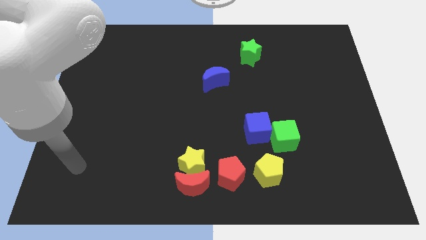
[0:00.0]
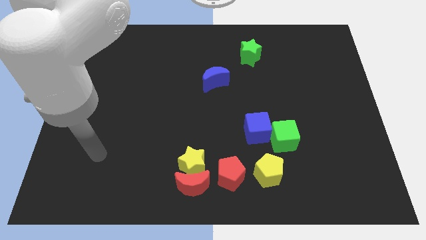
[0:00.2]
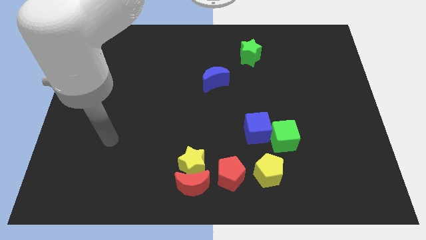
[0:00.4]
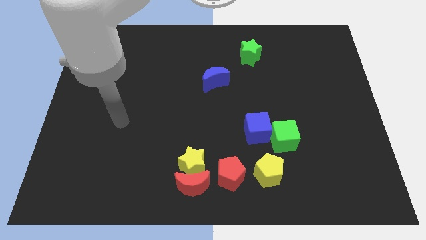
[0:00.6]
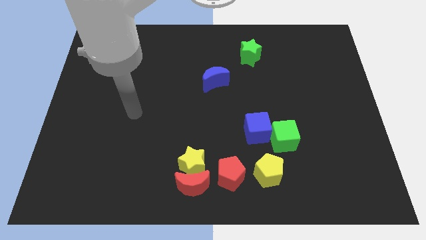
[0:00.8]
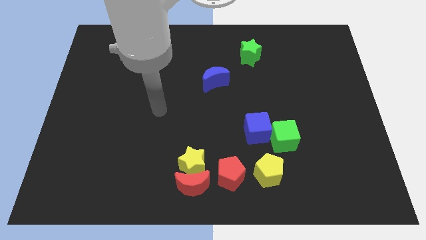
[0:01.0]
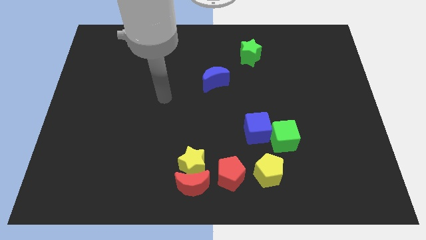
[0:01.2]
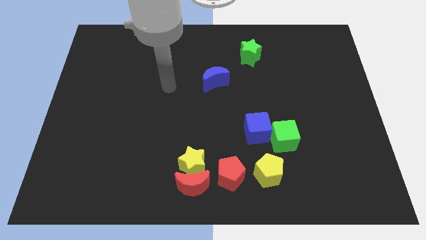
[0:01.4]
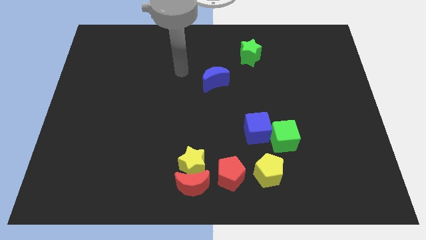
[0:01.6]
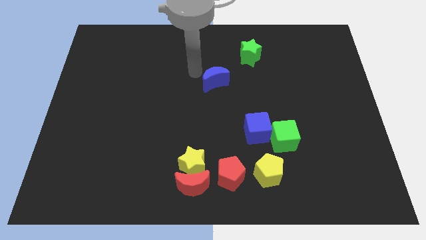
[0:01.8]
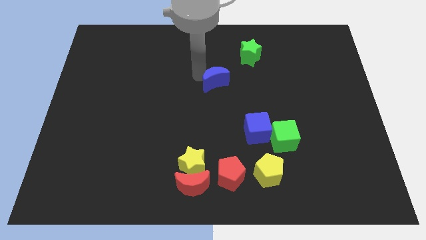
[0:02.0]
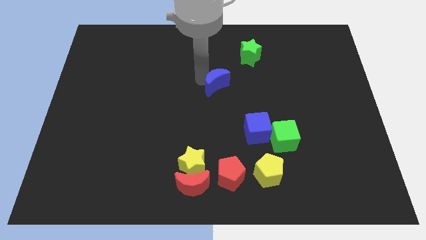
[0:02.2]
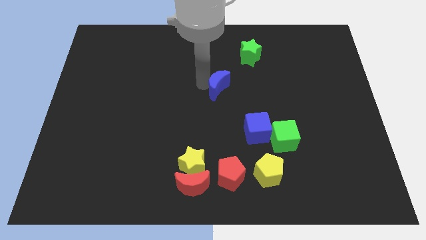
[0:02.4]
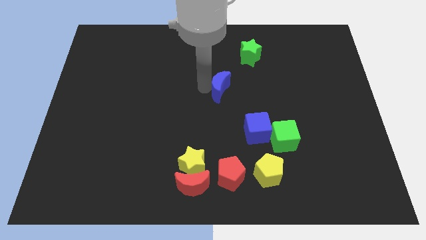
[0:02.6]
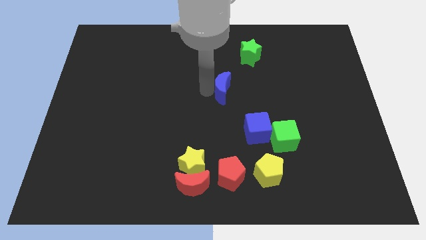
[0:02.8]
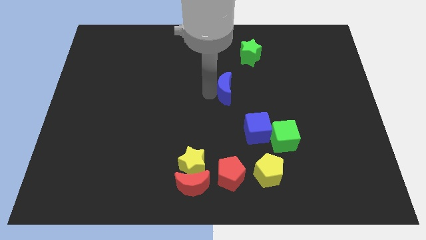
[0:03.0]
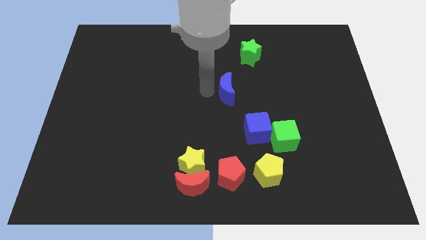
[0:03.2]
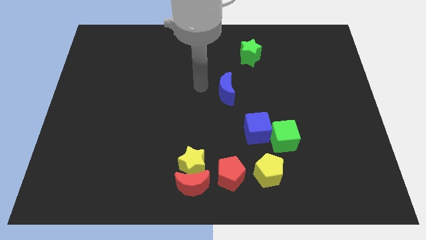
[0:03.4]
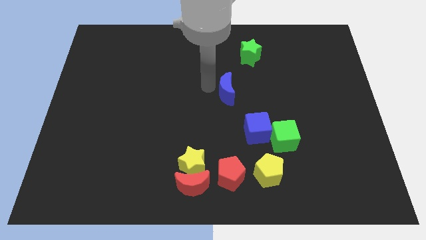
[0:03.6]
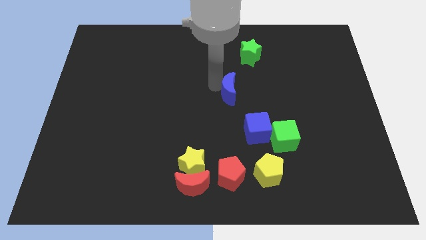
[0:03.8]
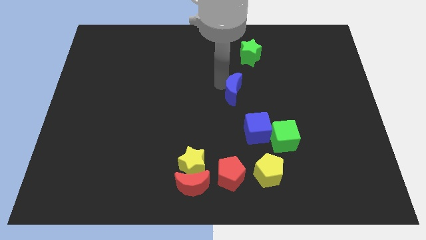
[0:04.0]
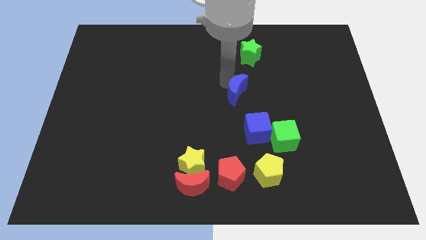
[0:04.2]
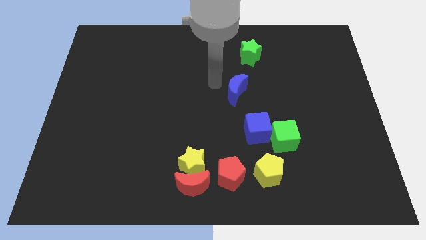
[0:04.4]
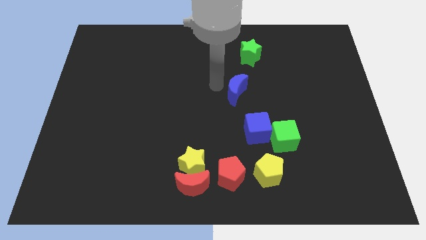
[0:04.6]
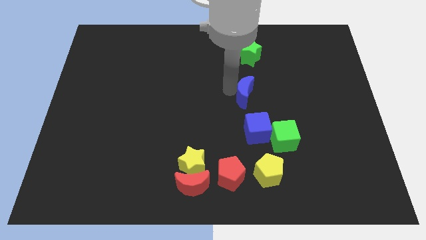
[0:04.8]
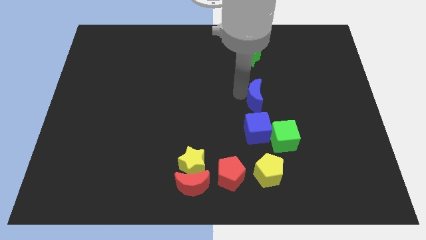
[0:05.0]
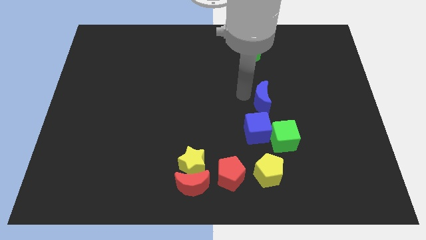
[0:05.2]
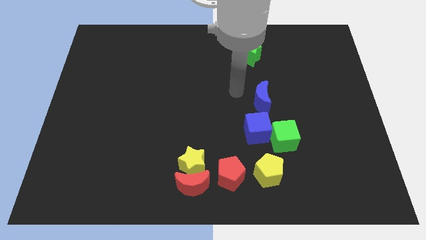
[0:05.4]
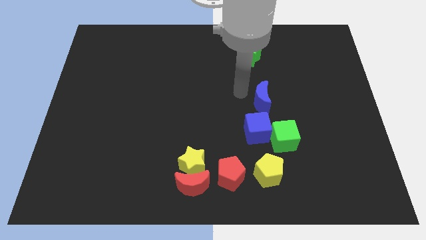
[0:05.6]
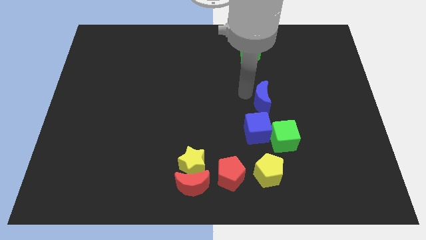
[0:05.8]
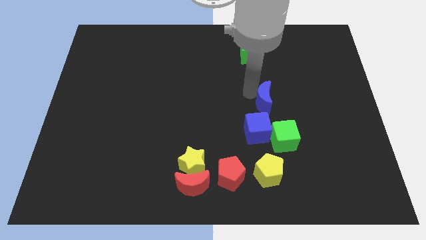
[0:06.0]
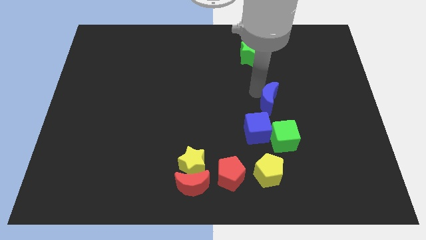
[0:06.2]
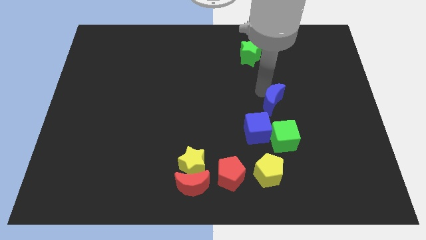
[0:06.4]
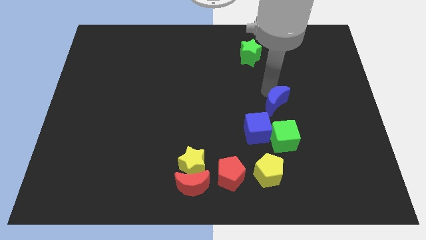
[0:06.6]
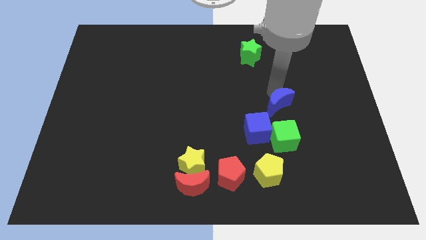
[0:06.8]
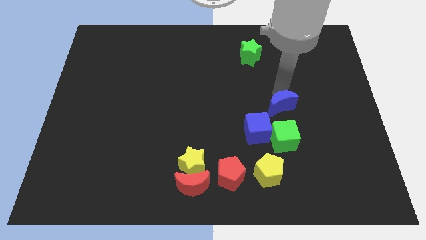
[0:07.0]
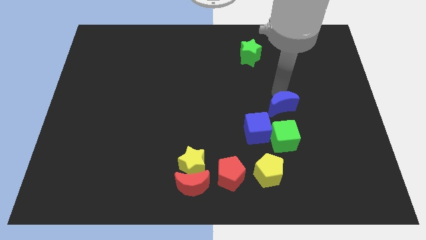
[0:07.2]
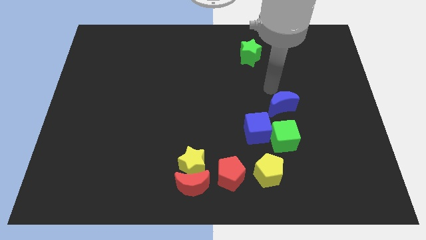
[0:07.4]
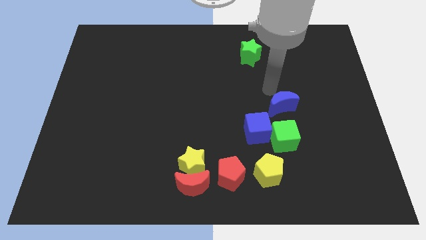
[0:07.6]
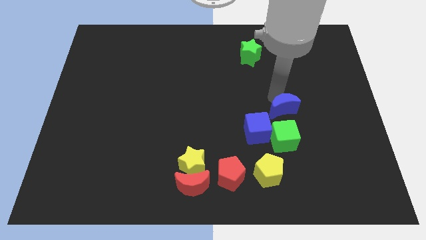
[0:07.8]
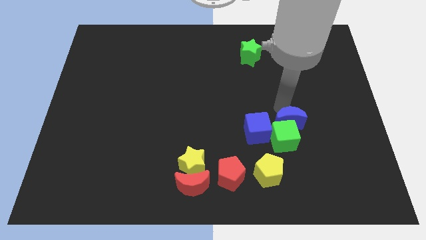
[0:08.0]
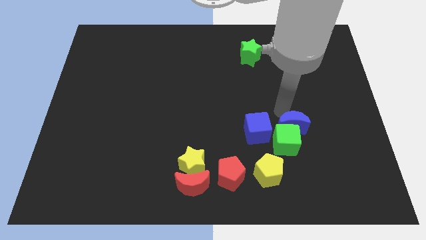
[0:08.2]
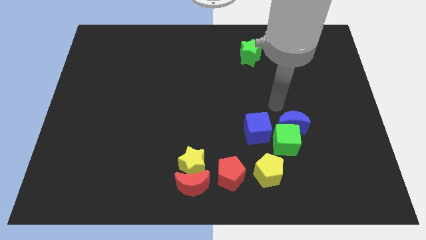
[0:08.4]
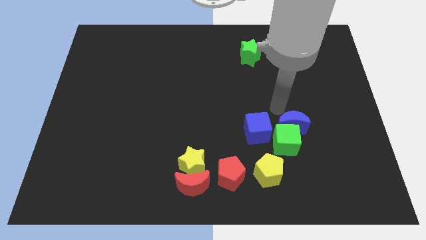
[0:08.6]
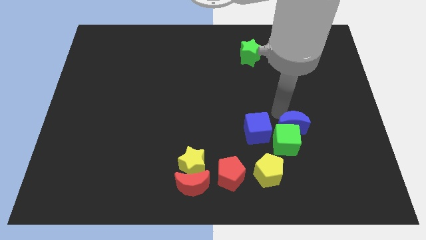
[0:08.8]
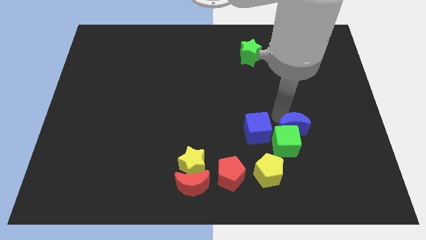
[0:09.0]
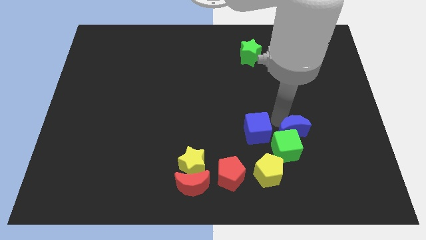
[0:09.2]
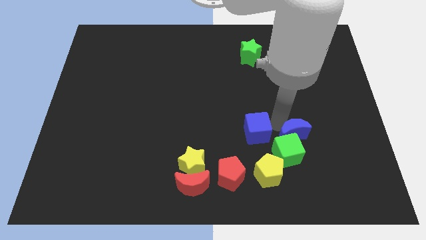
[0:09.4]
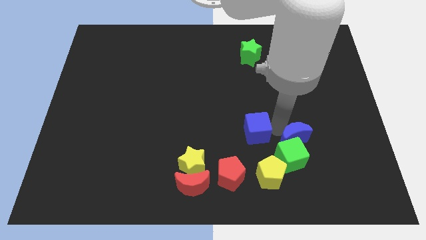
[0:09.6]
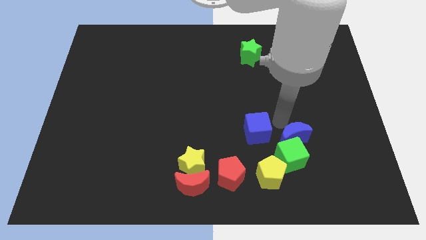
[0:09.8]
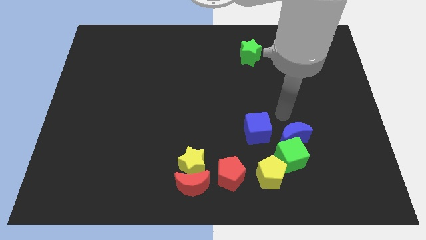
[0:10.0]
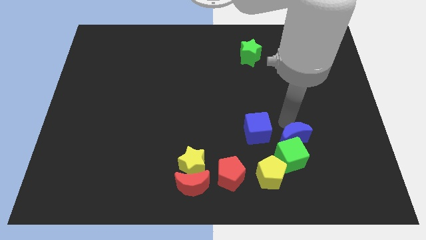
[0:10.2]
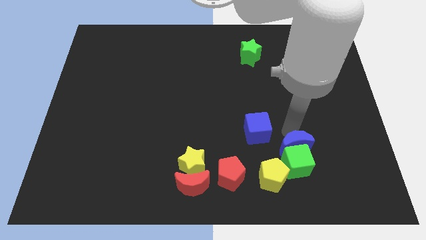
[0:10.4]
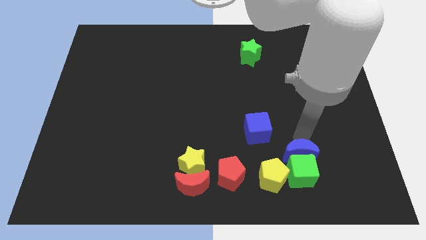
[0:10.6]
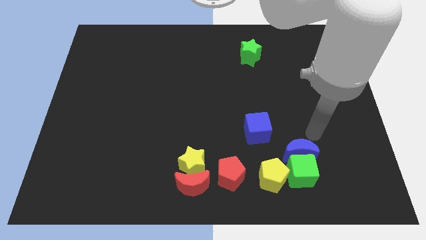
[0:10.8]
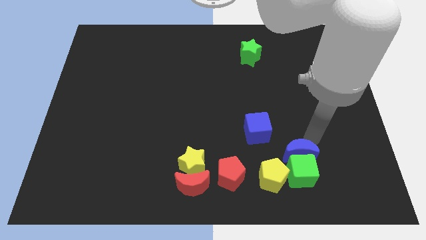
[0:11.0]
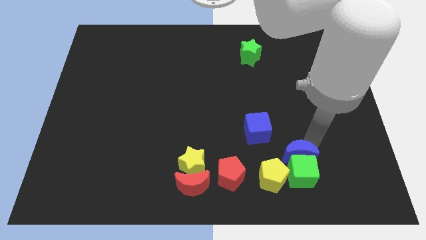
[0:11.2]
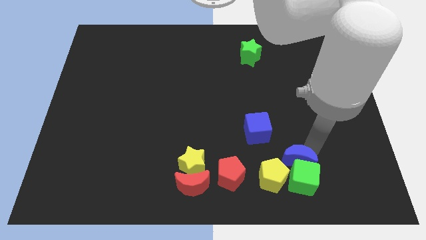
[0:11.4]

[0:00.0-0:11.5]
push the blue moon just right of the red pentagon
